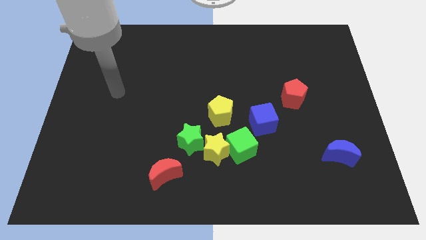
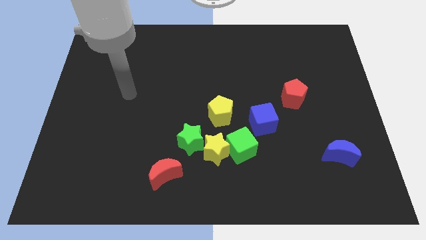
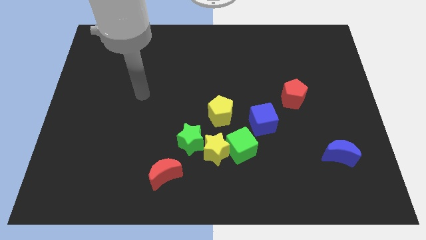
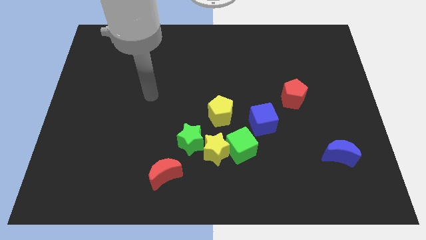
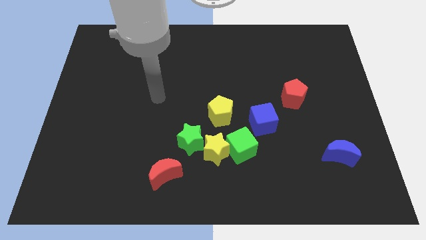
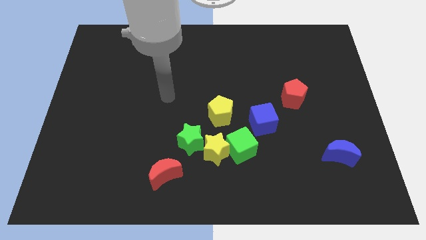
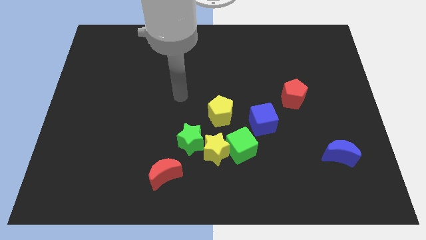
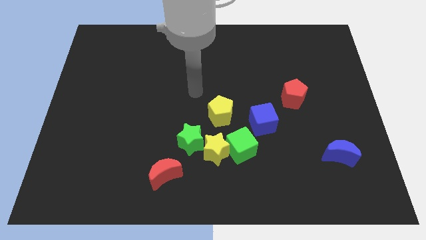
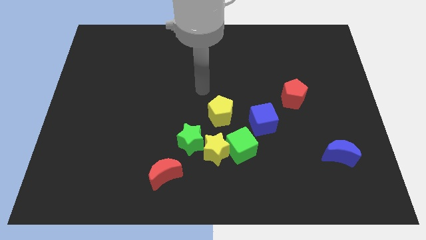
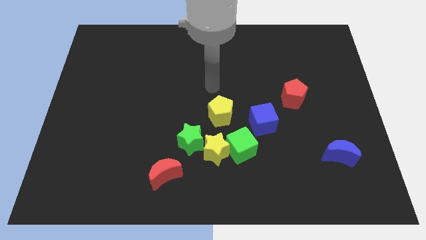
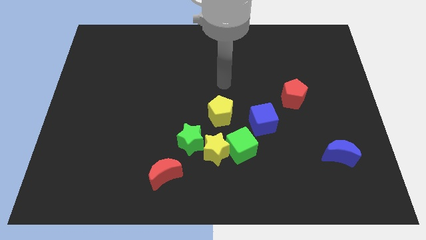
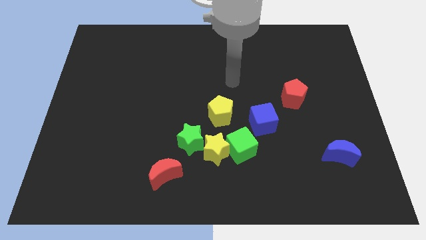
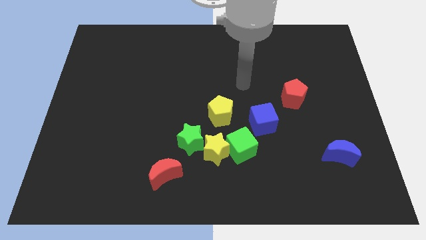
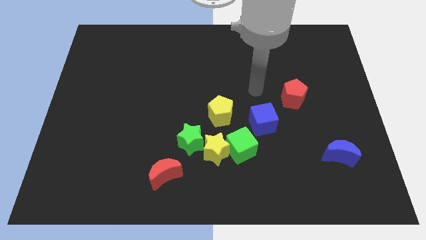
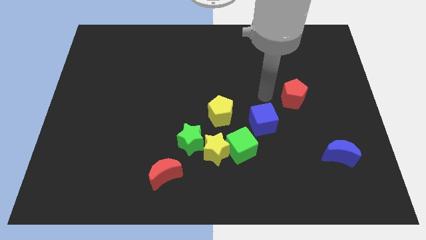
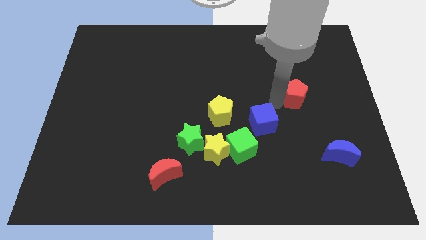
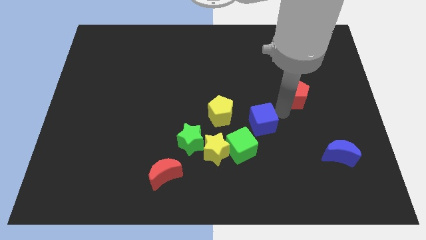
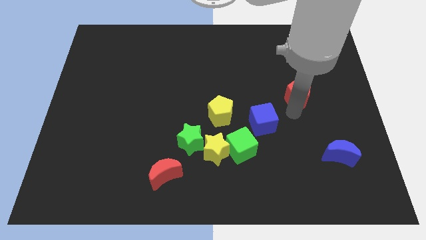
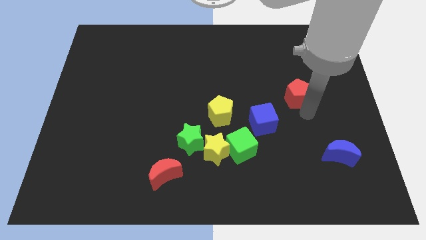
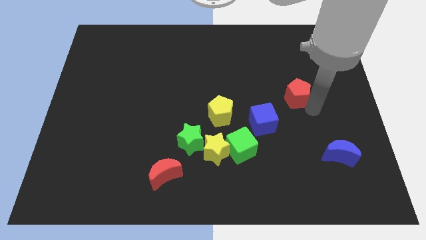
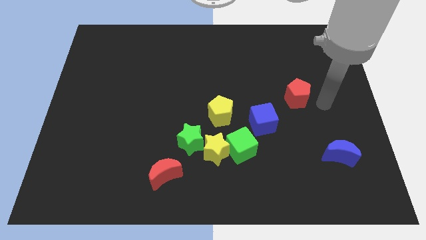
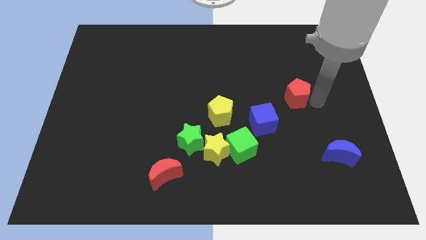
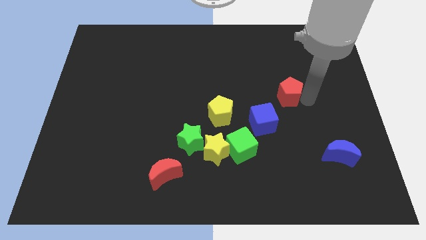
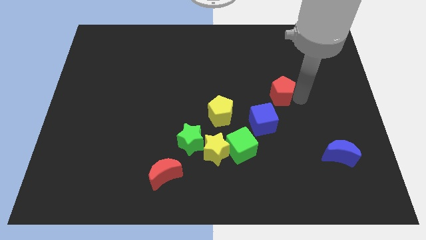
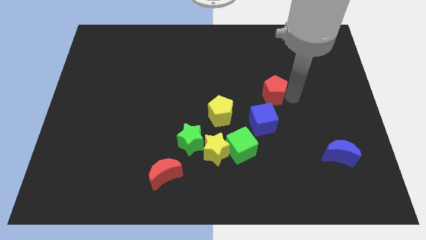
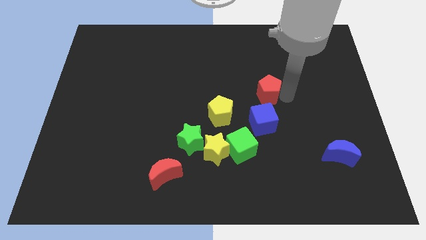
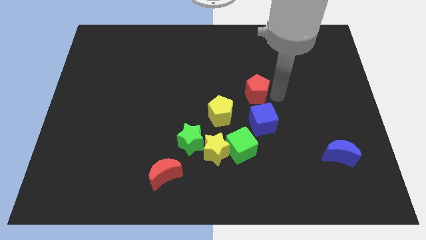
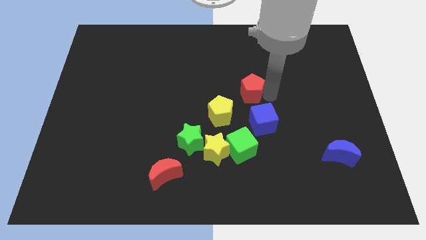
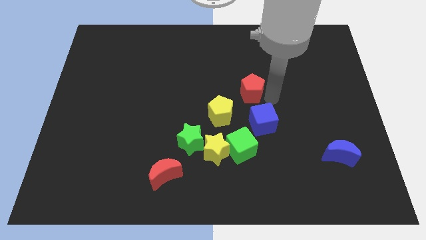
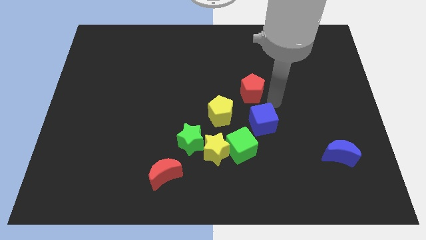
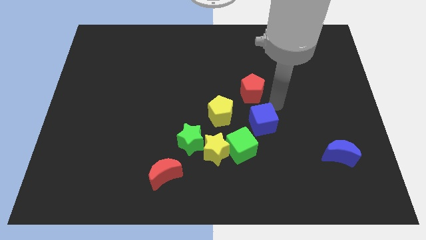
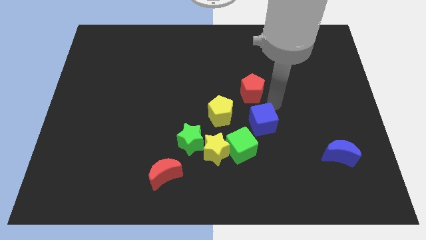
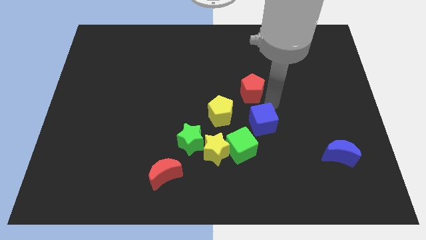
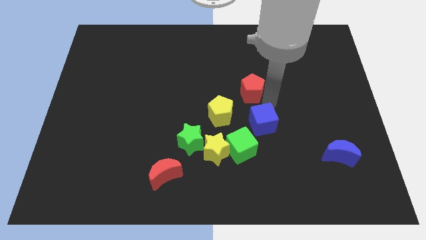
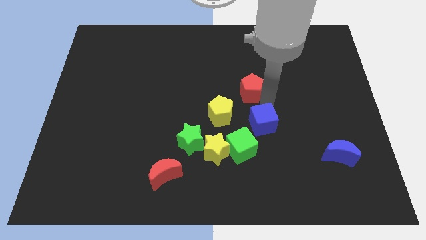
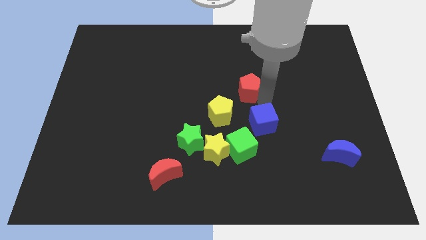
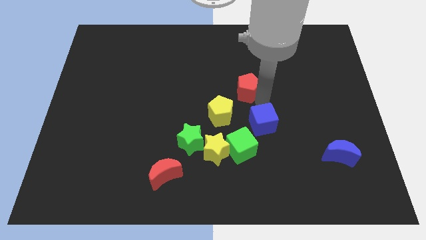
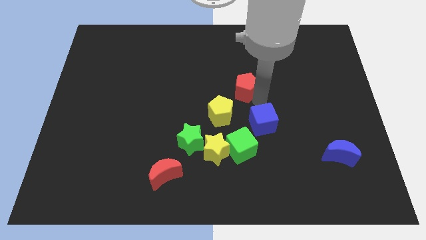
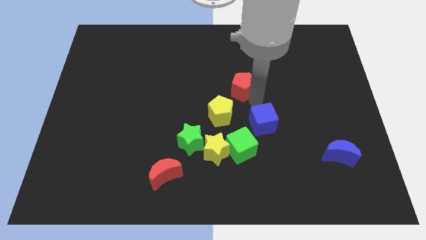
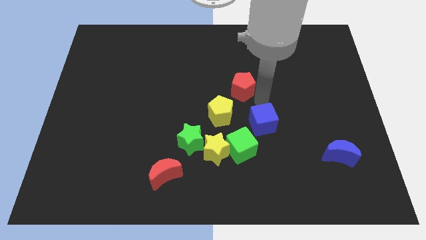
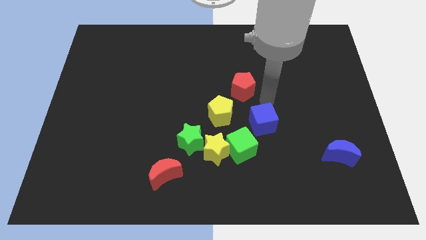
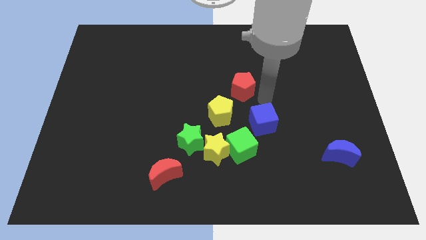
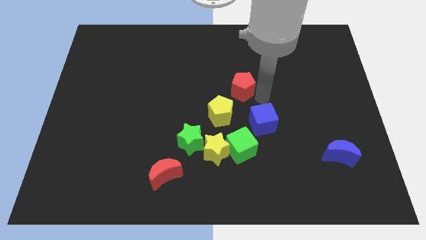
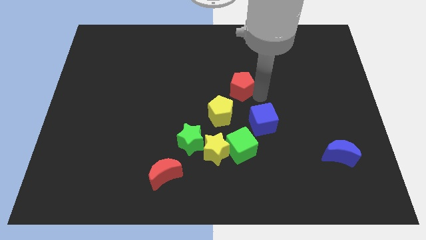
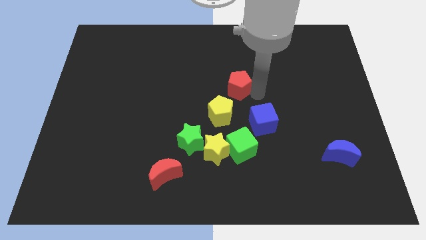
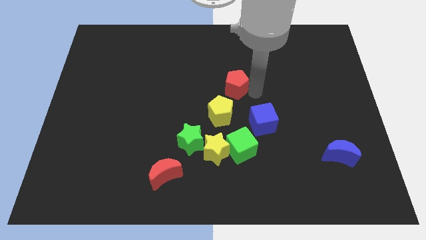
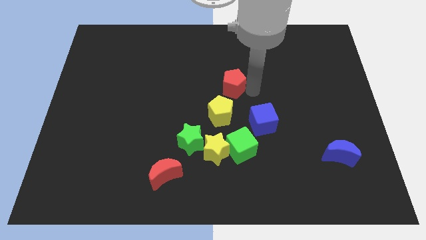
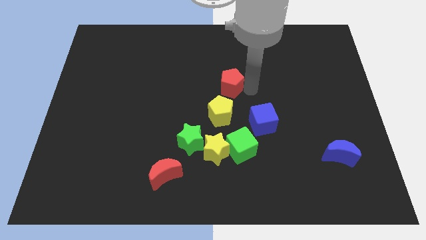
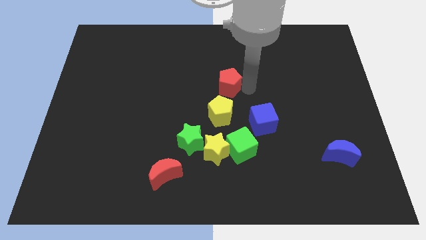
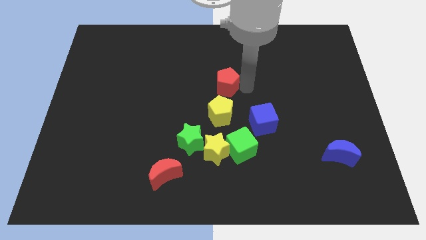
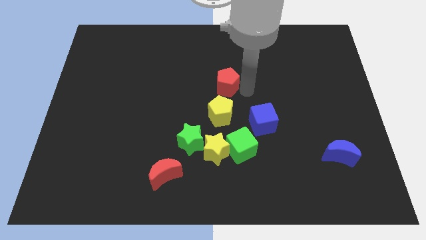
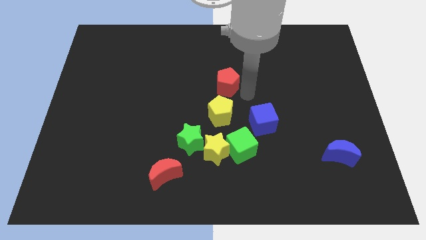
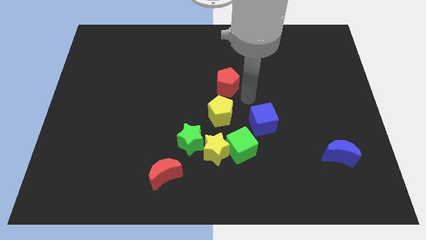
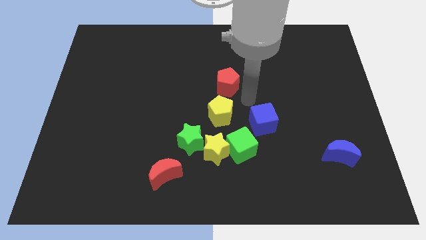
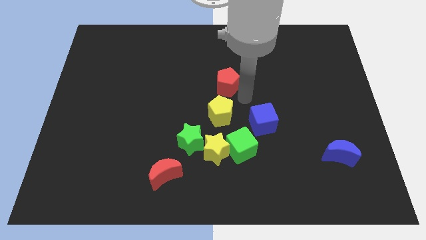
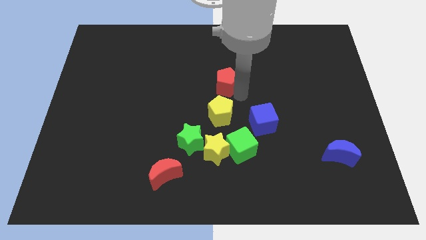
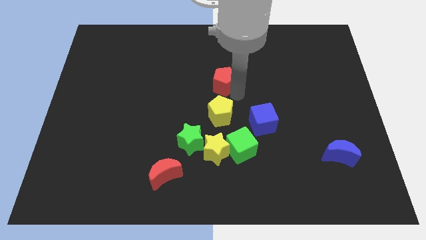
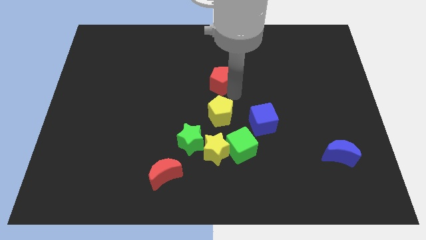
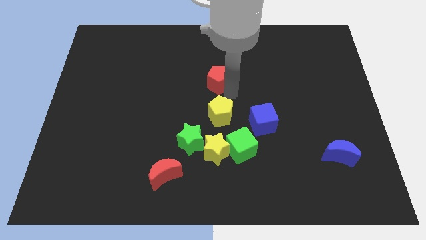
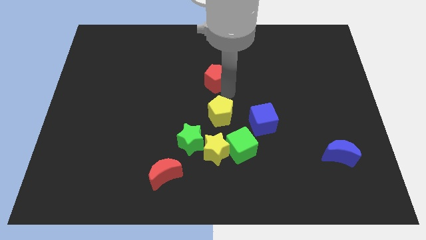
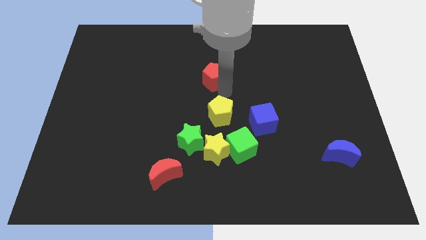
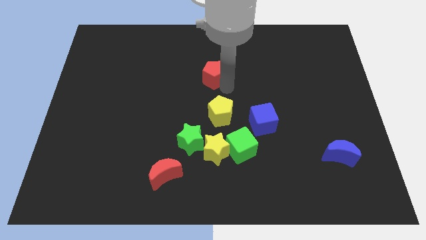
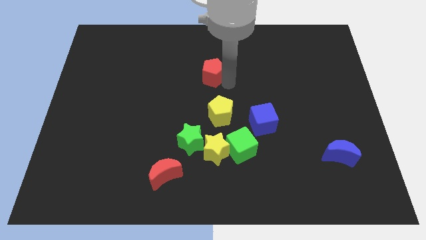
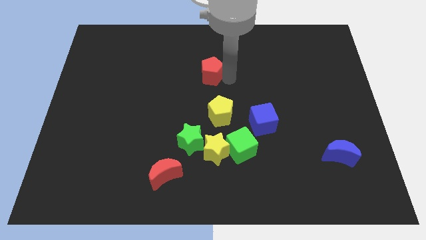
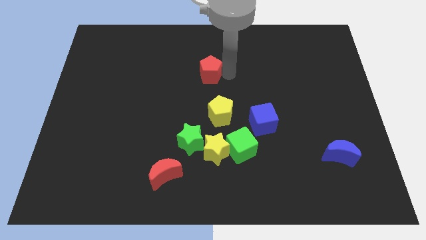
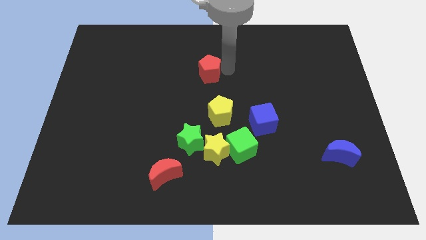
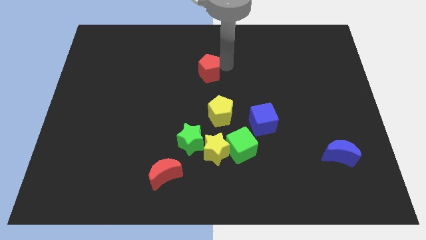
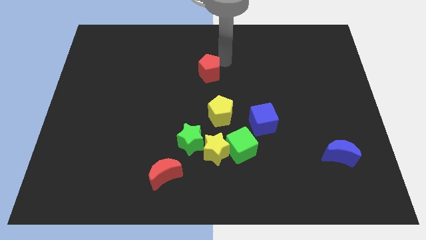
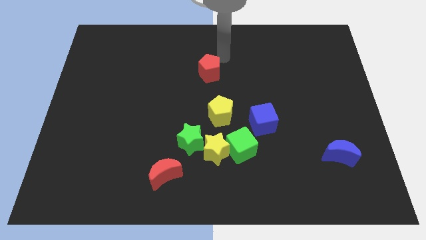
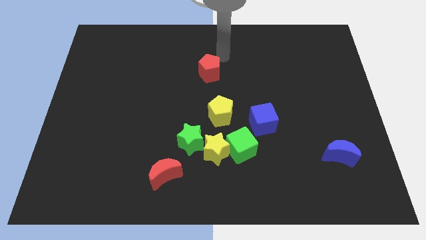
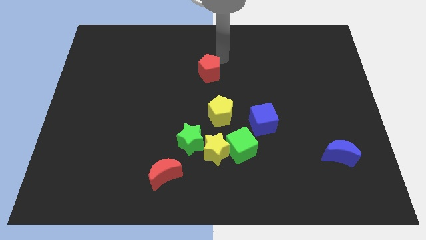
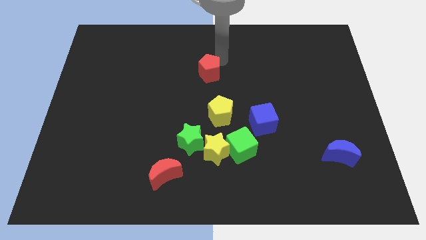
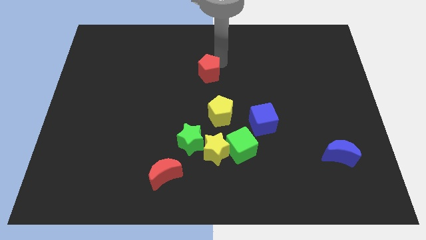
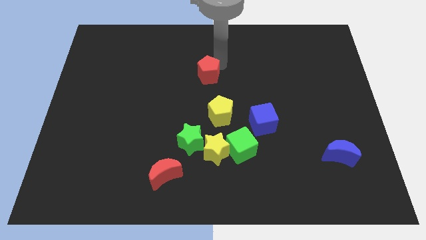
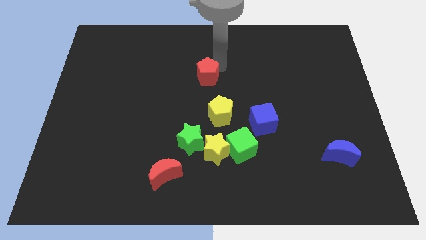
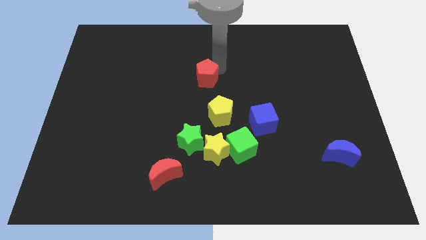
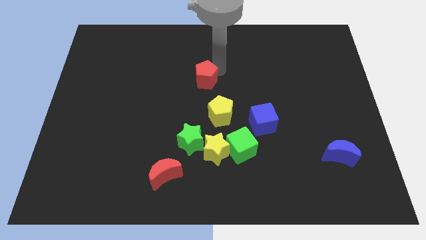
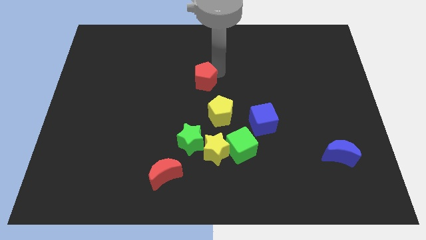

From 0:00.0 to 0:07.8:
slide the red pentagon left
